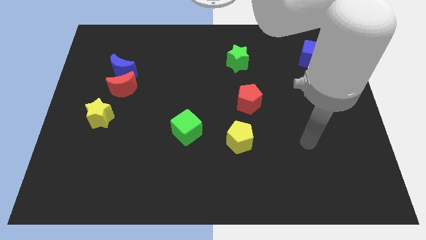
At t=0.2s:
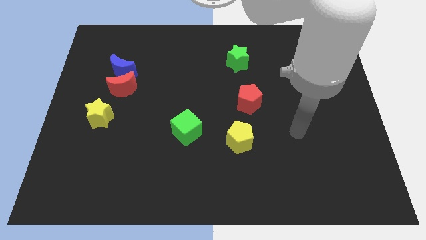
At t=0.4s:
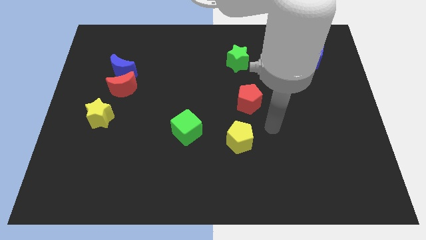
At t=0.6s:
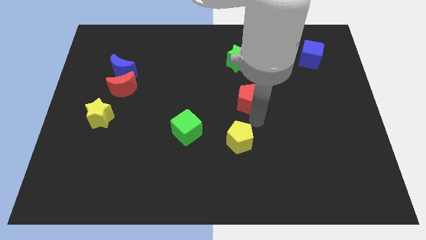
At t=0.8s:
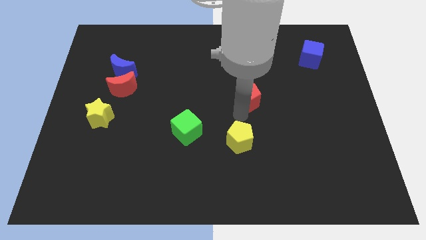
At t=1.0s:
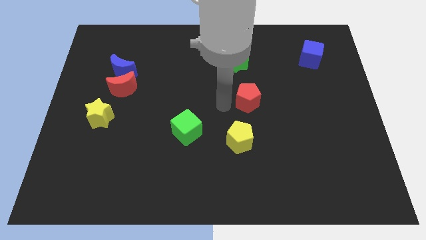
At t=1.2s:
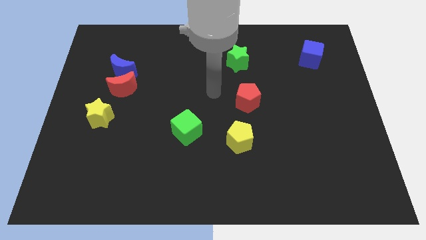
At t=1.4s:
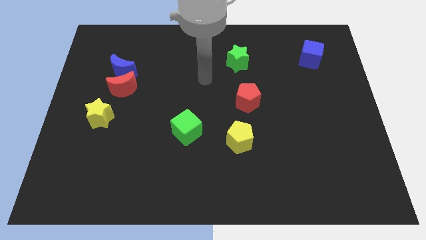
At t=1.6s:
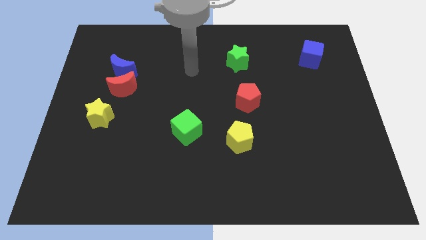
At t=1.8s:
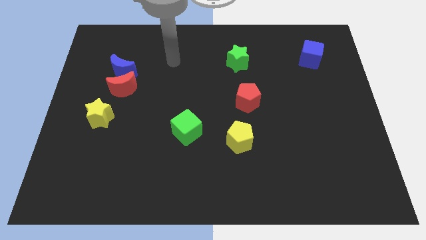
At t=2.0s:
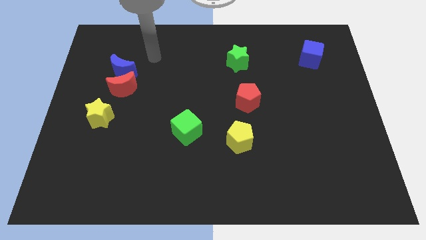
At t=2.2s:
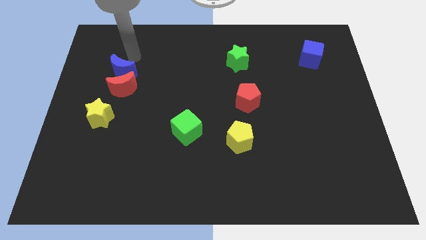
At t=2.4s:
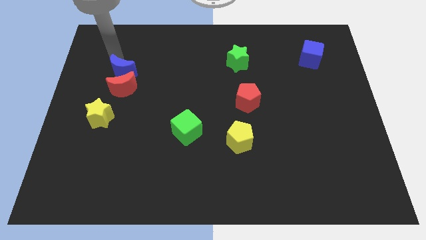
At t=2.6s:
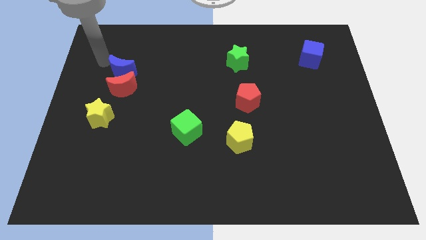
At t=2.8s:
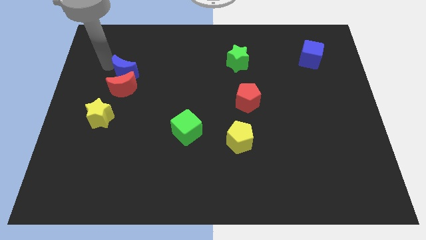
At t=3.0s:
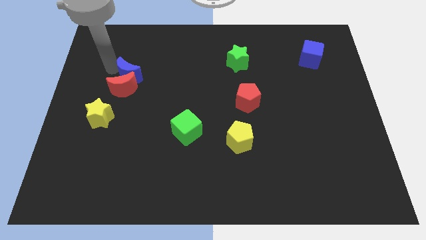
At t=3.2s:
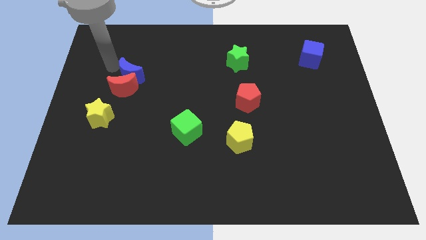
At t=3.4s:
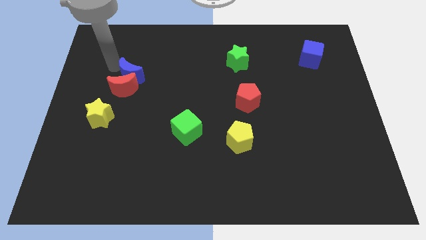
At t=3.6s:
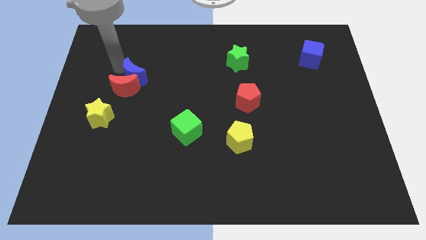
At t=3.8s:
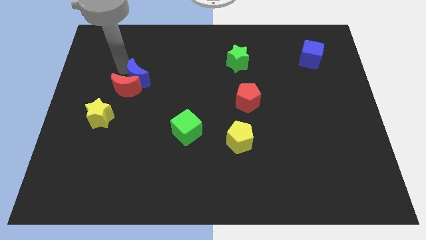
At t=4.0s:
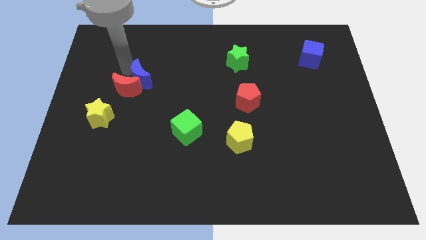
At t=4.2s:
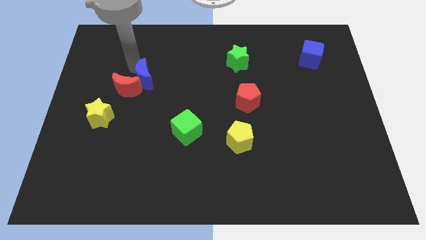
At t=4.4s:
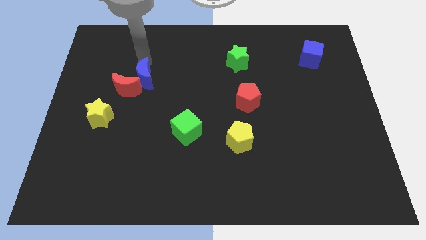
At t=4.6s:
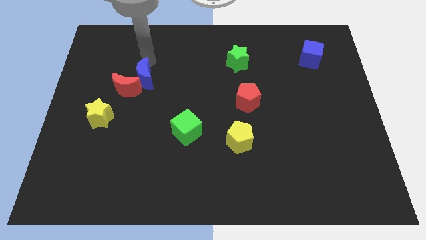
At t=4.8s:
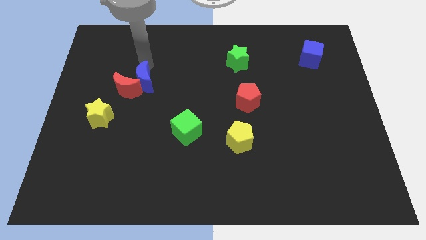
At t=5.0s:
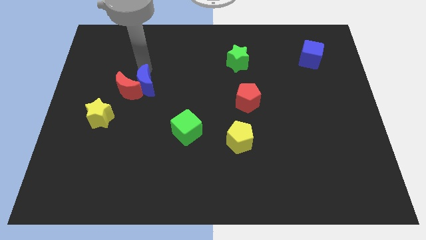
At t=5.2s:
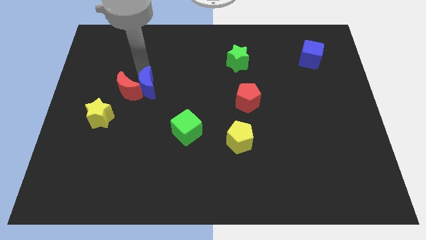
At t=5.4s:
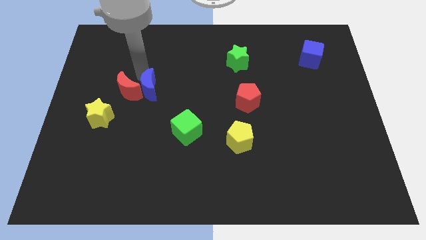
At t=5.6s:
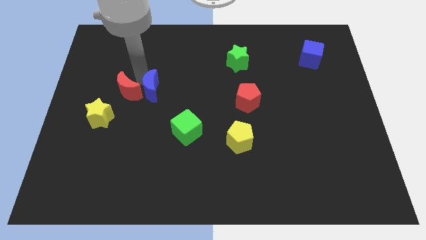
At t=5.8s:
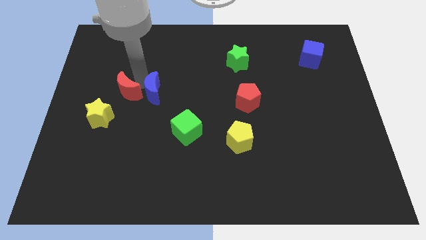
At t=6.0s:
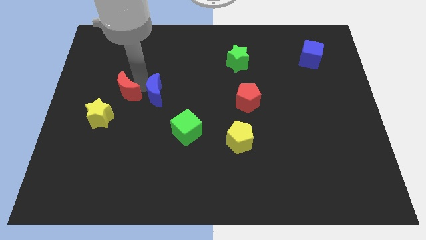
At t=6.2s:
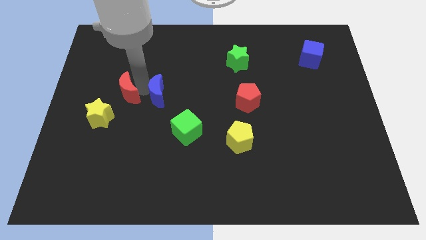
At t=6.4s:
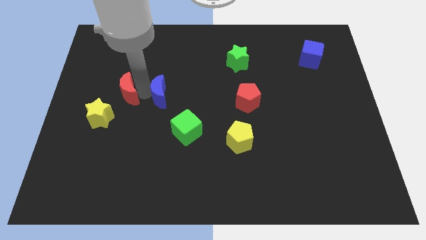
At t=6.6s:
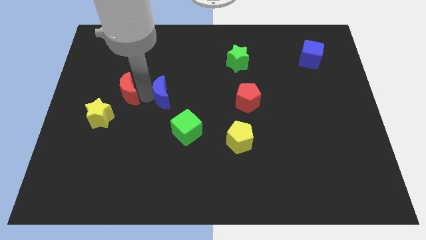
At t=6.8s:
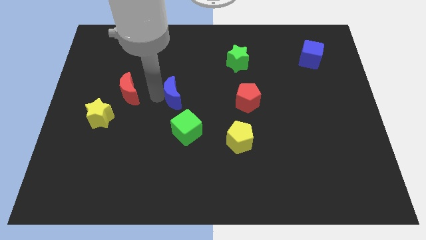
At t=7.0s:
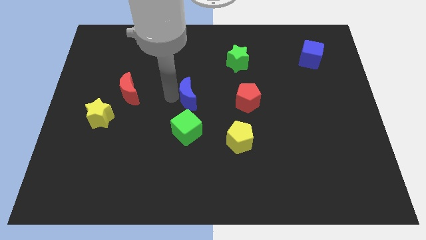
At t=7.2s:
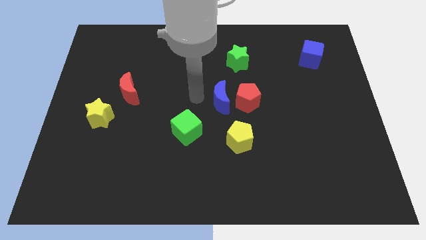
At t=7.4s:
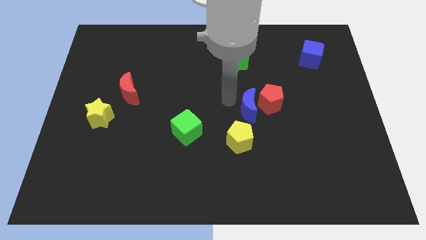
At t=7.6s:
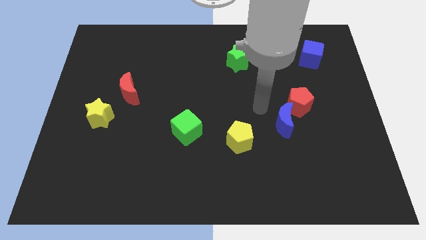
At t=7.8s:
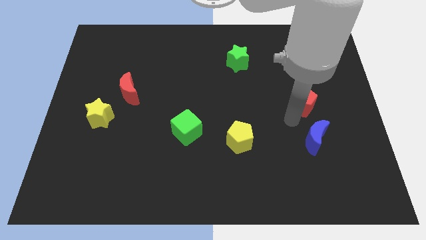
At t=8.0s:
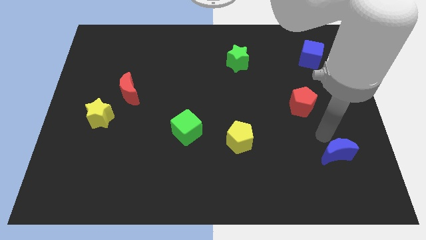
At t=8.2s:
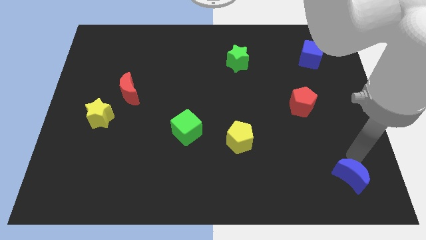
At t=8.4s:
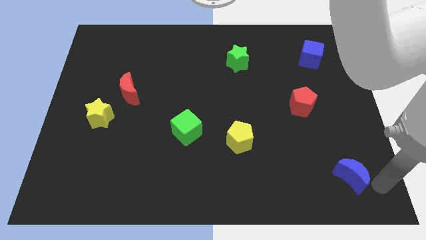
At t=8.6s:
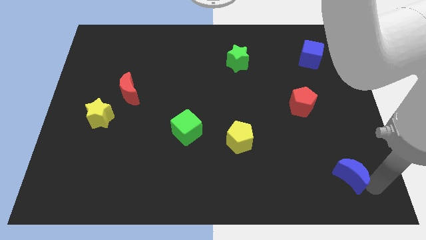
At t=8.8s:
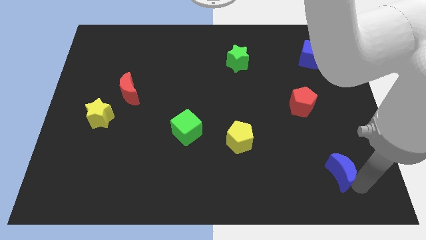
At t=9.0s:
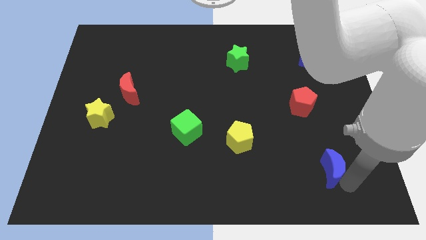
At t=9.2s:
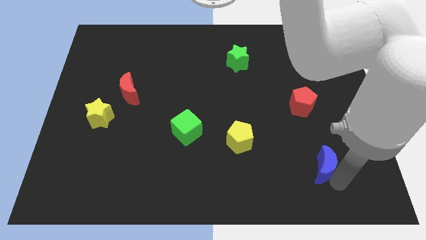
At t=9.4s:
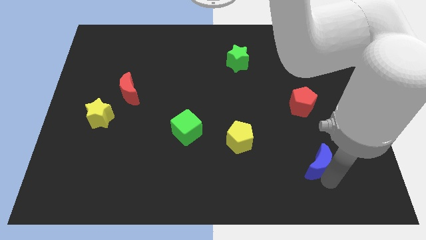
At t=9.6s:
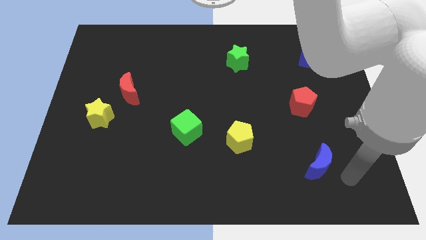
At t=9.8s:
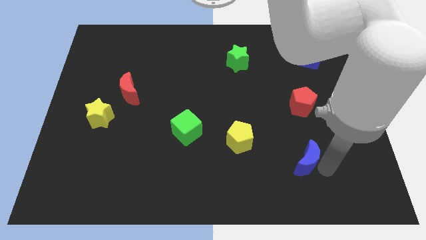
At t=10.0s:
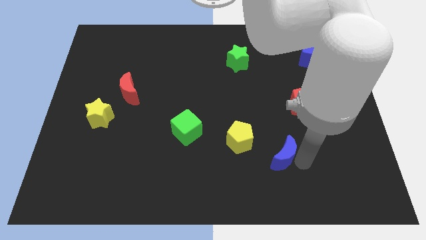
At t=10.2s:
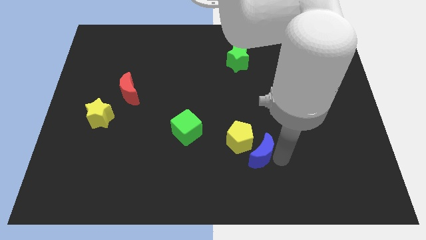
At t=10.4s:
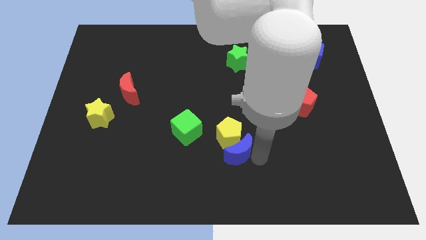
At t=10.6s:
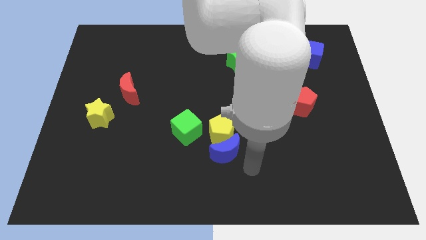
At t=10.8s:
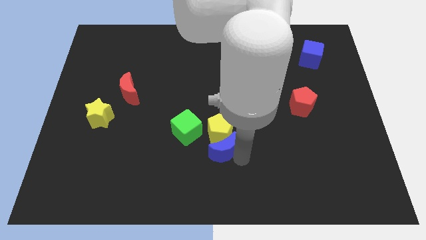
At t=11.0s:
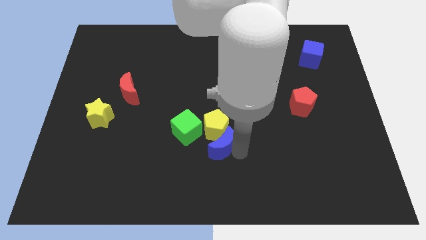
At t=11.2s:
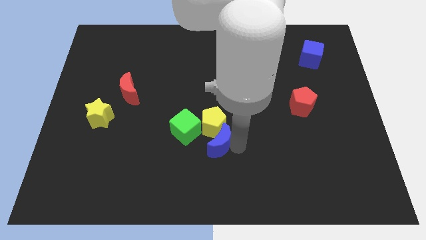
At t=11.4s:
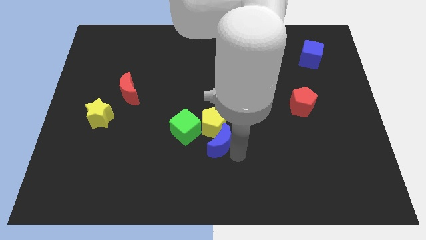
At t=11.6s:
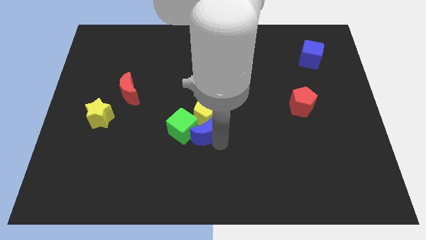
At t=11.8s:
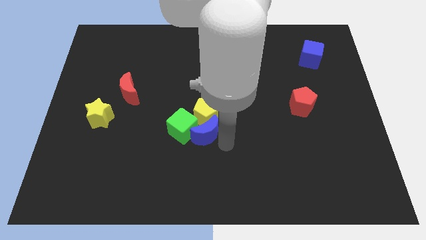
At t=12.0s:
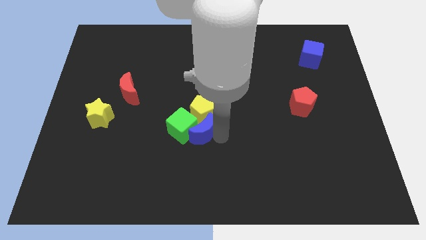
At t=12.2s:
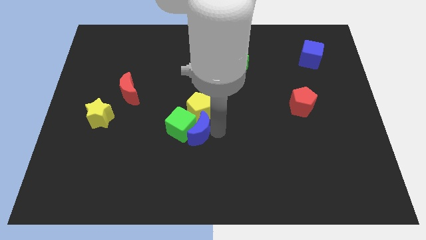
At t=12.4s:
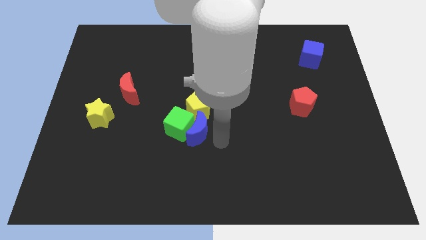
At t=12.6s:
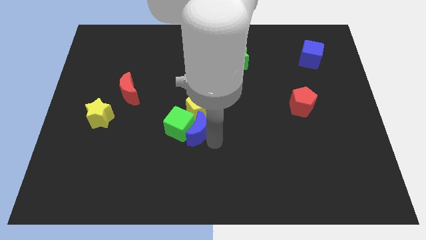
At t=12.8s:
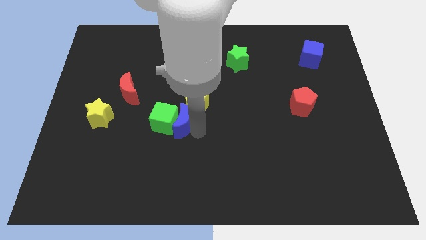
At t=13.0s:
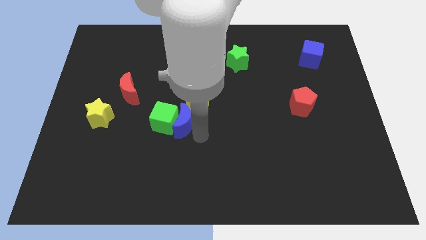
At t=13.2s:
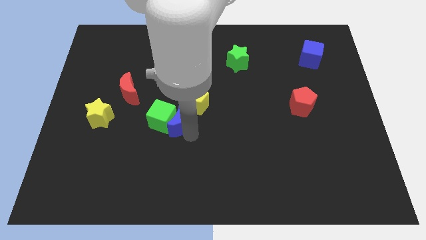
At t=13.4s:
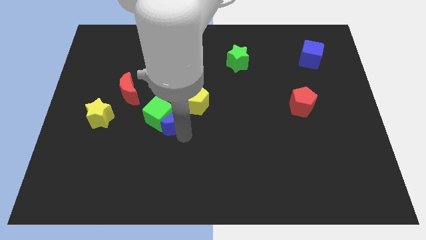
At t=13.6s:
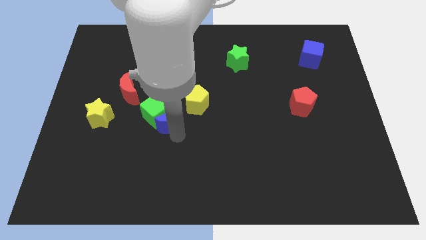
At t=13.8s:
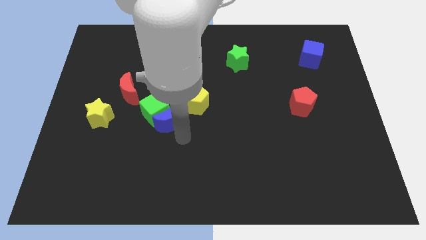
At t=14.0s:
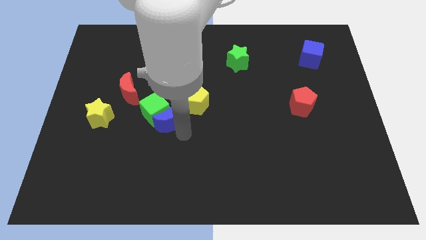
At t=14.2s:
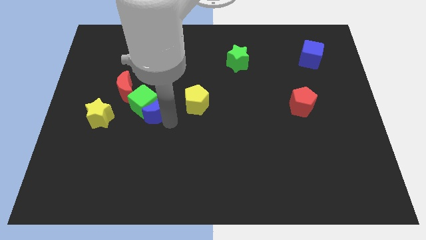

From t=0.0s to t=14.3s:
slightly move the blue moon downwards

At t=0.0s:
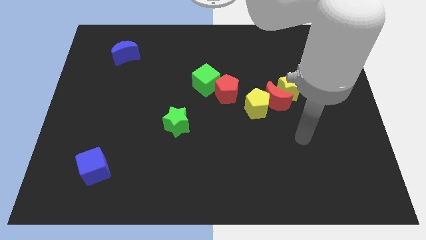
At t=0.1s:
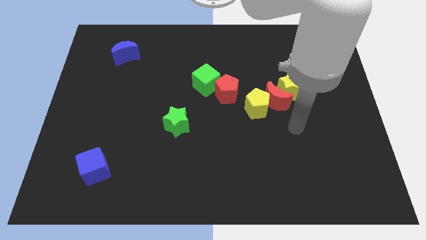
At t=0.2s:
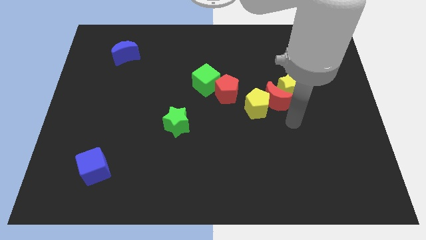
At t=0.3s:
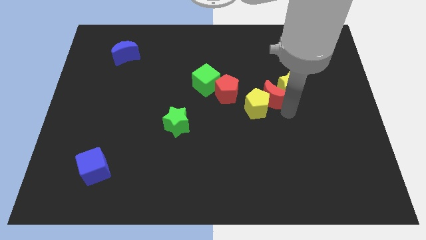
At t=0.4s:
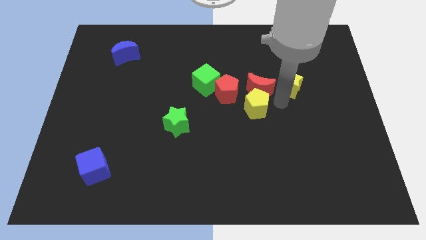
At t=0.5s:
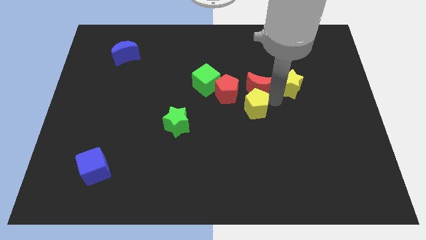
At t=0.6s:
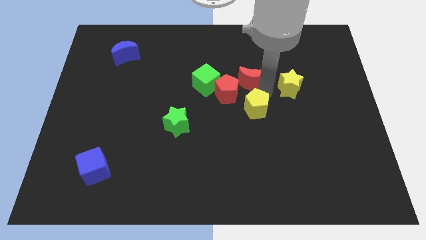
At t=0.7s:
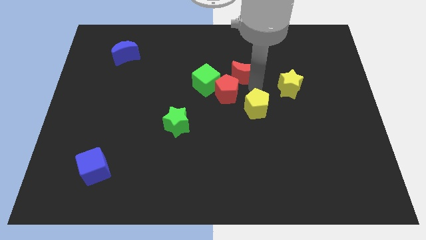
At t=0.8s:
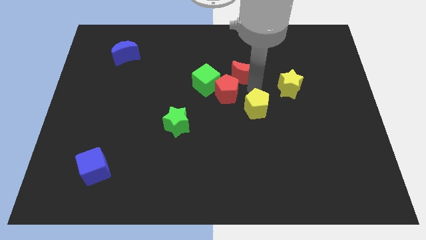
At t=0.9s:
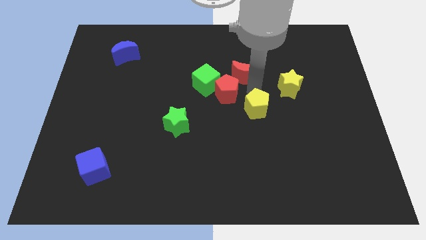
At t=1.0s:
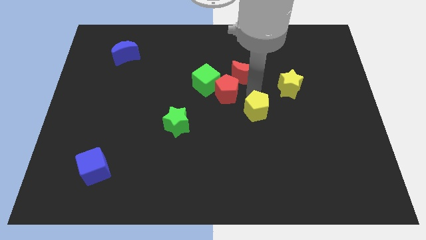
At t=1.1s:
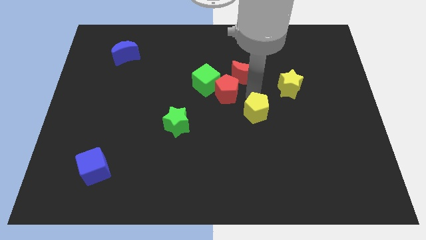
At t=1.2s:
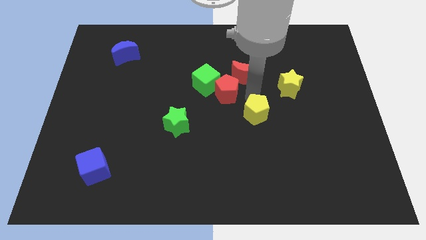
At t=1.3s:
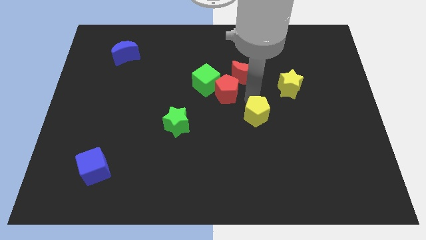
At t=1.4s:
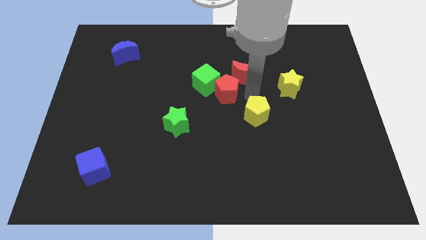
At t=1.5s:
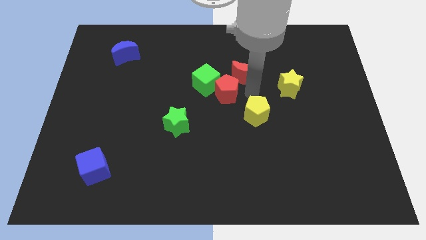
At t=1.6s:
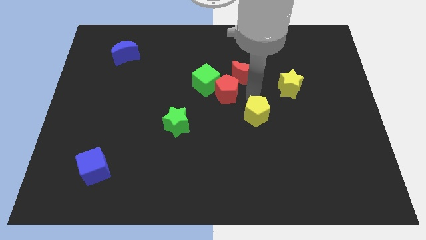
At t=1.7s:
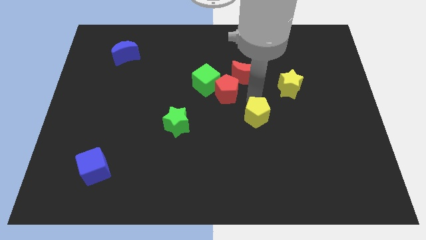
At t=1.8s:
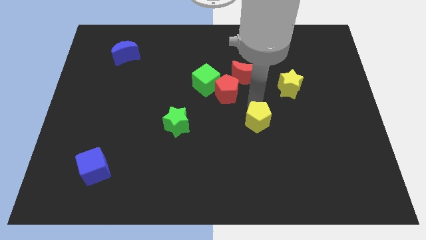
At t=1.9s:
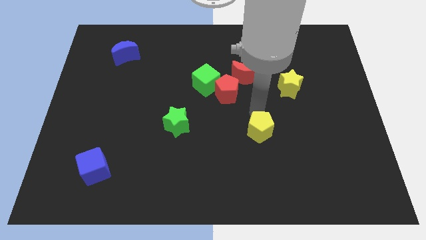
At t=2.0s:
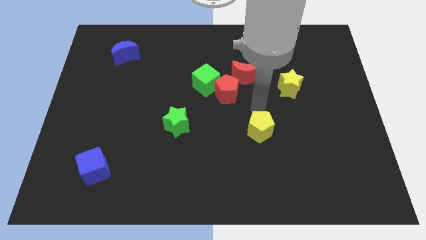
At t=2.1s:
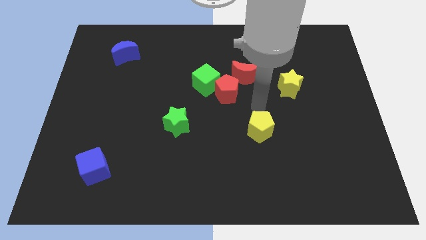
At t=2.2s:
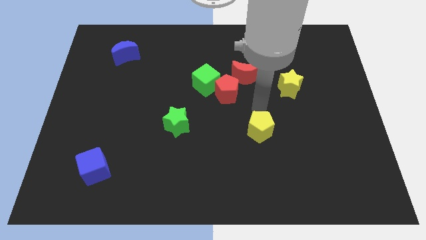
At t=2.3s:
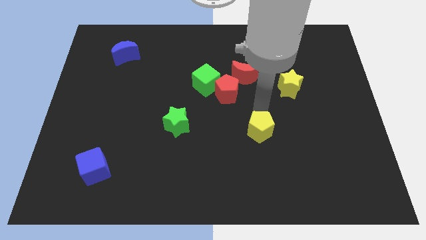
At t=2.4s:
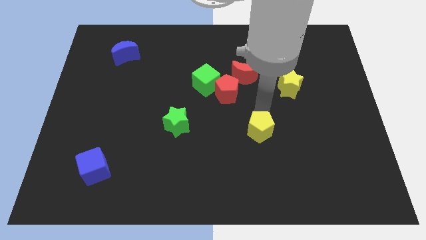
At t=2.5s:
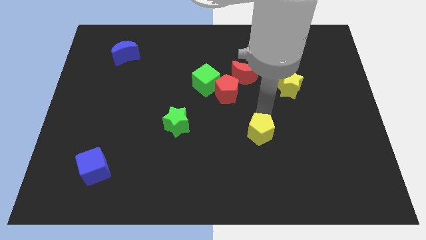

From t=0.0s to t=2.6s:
move the yellow pentagon a little down
